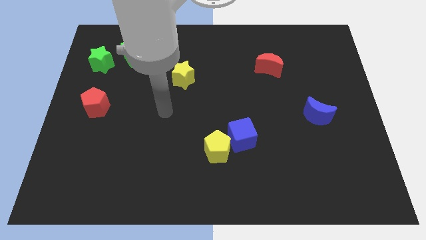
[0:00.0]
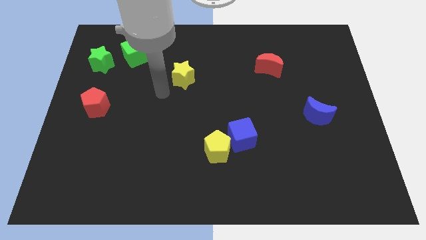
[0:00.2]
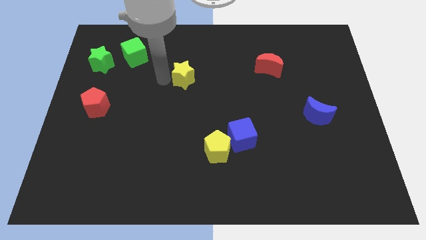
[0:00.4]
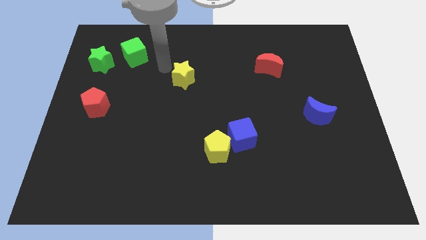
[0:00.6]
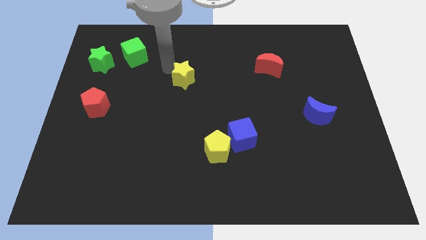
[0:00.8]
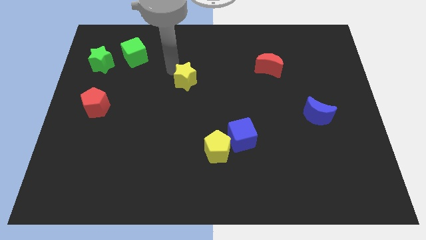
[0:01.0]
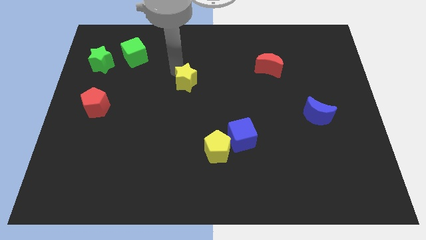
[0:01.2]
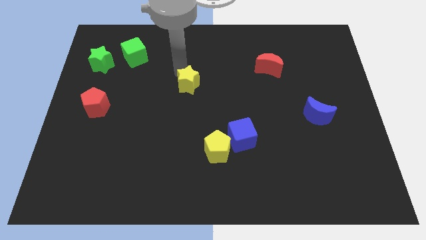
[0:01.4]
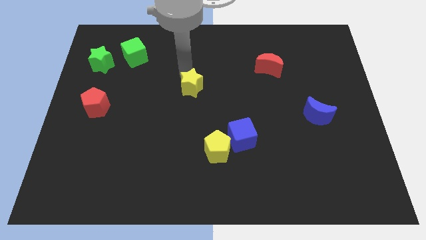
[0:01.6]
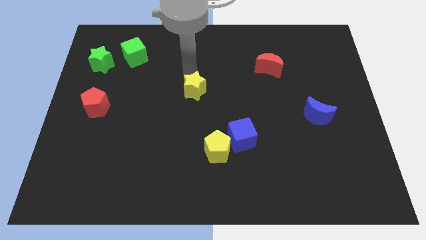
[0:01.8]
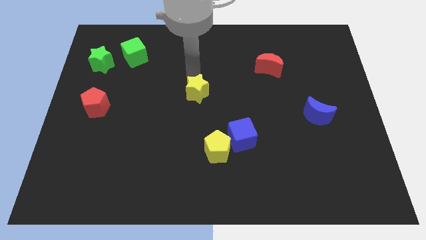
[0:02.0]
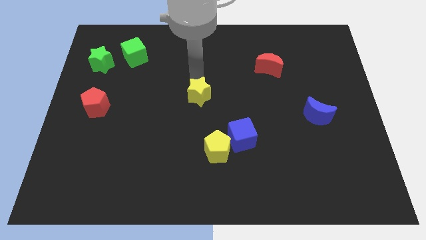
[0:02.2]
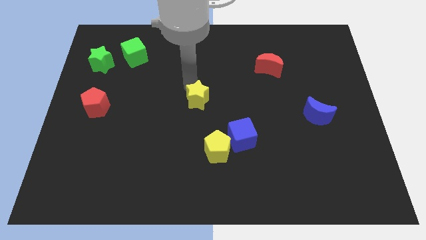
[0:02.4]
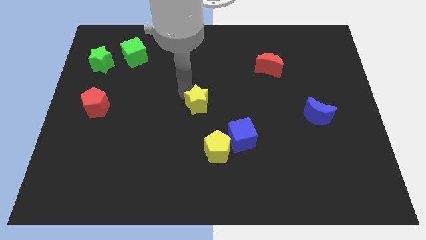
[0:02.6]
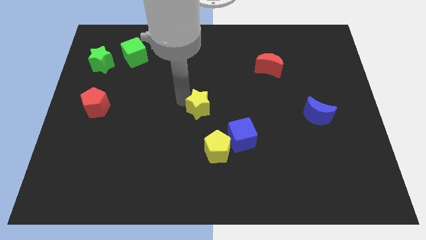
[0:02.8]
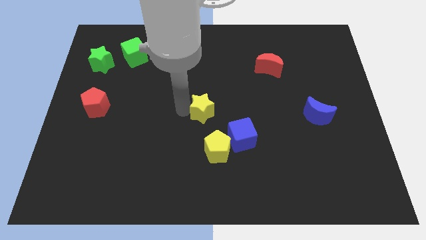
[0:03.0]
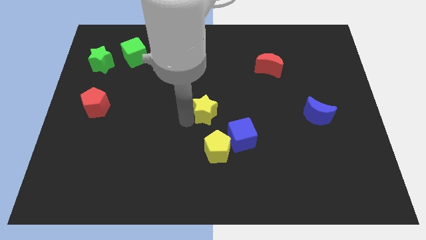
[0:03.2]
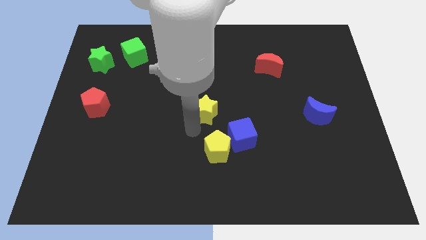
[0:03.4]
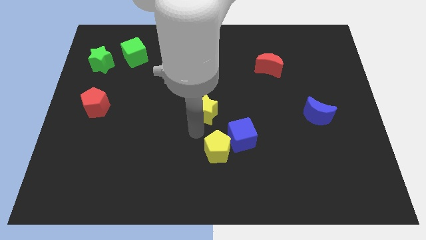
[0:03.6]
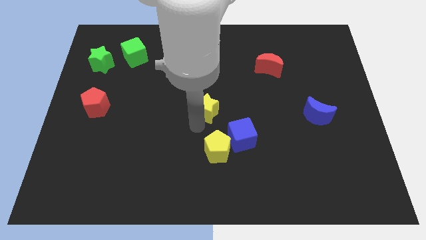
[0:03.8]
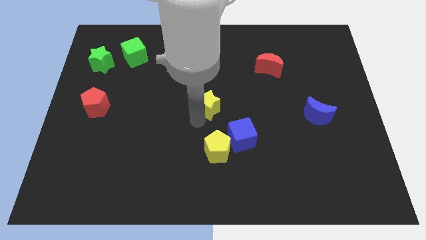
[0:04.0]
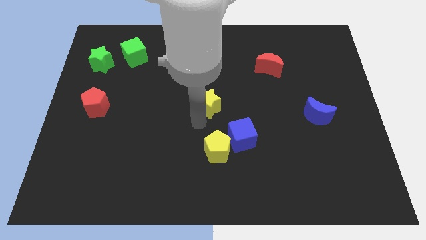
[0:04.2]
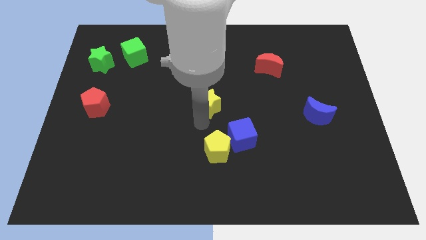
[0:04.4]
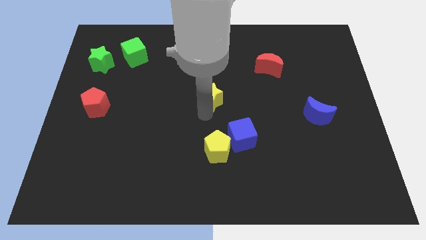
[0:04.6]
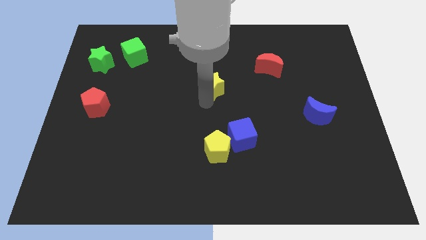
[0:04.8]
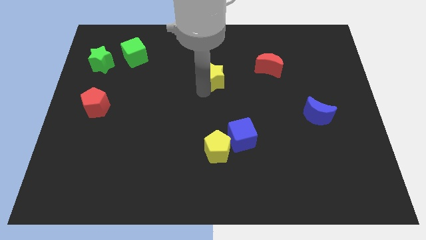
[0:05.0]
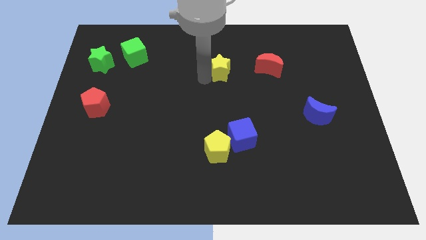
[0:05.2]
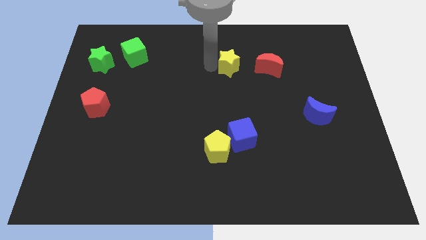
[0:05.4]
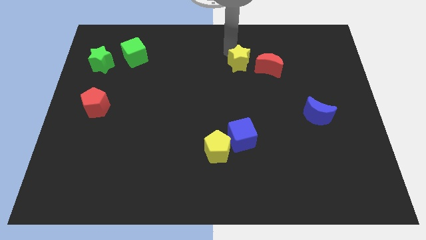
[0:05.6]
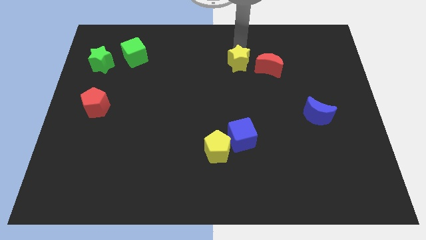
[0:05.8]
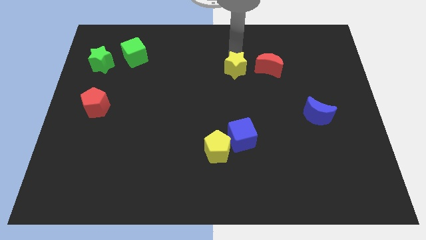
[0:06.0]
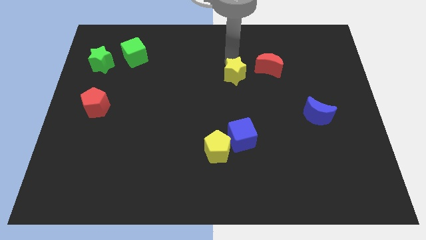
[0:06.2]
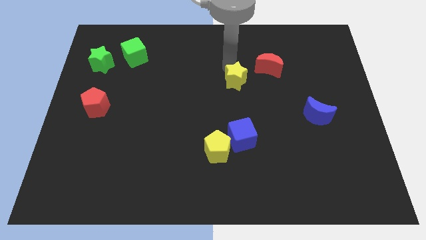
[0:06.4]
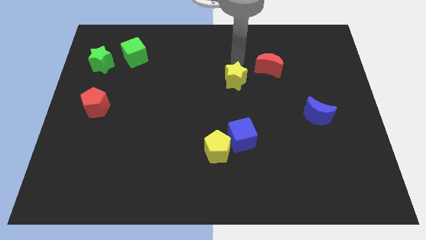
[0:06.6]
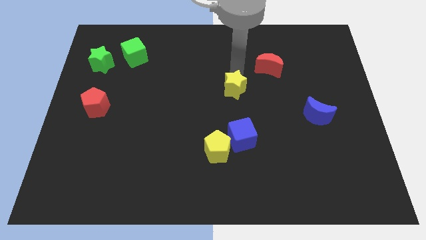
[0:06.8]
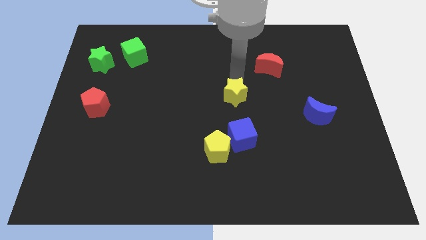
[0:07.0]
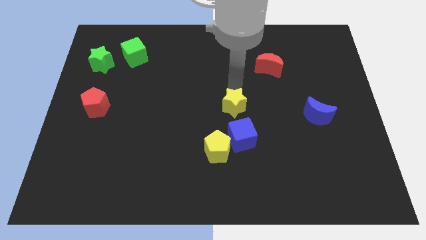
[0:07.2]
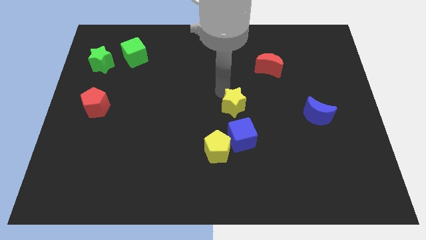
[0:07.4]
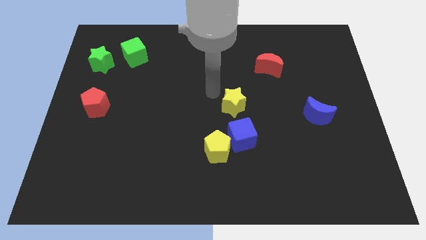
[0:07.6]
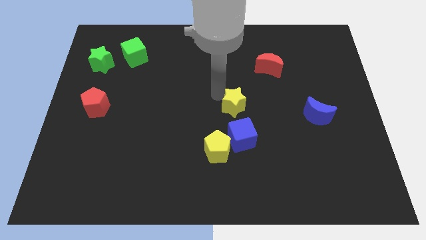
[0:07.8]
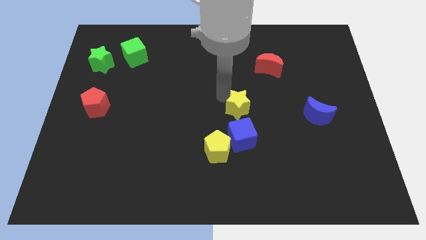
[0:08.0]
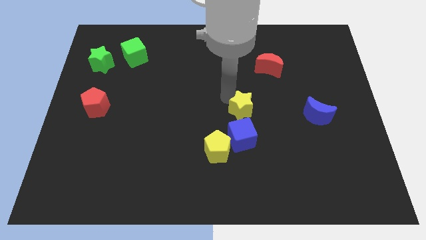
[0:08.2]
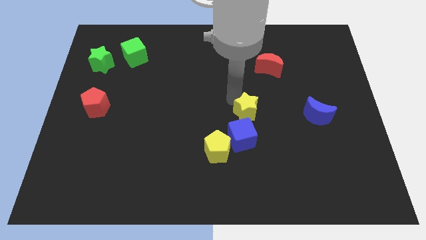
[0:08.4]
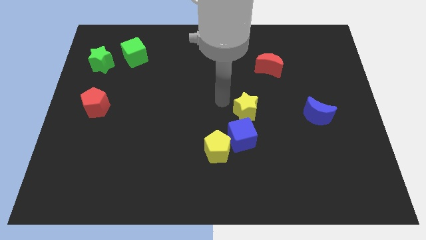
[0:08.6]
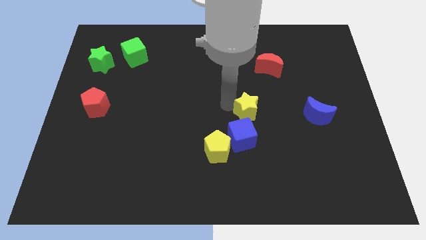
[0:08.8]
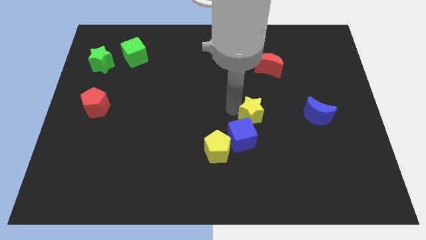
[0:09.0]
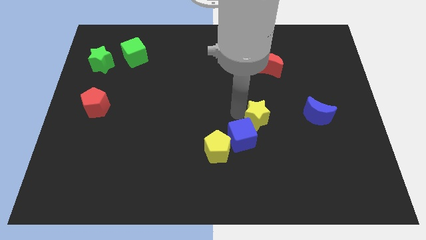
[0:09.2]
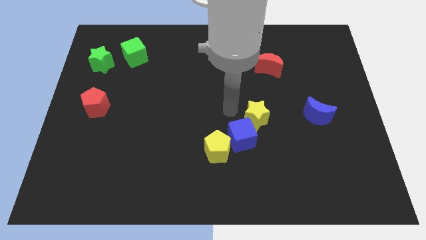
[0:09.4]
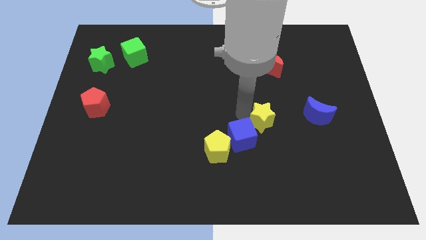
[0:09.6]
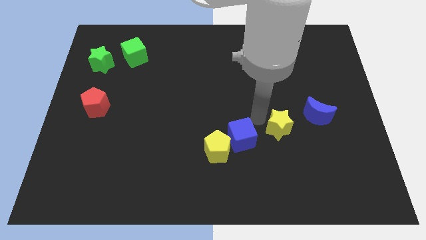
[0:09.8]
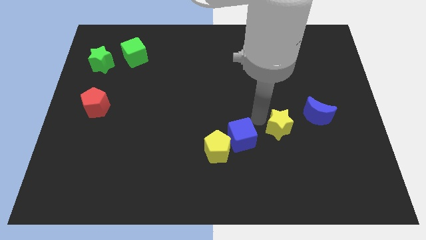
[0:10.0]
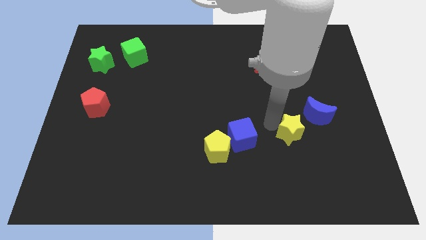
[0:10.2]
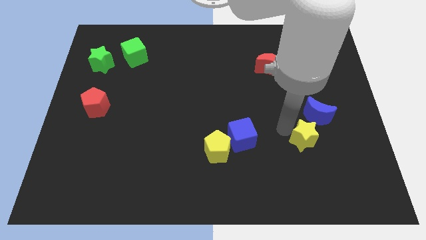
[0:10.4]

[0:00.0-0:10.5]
push the yellow star to the bottom side of the blue moon

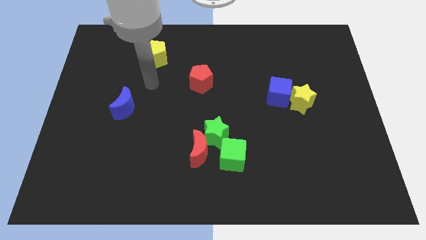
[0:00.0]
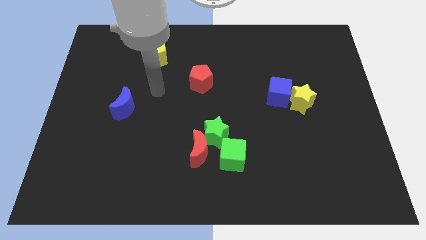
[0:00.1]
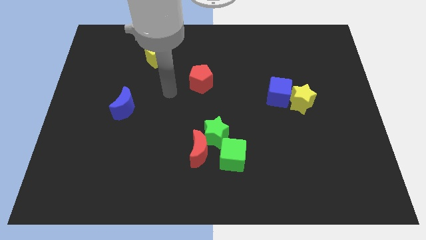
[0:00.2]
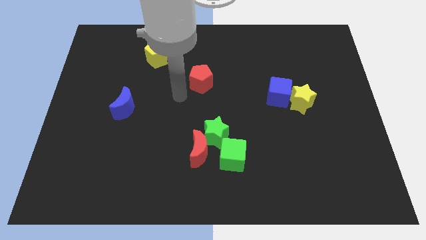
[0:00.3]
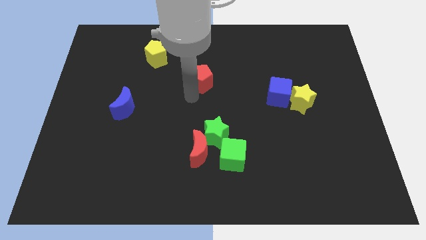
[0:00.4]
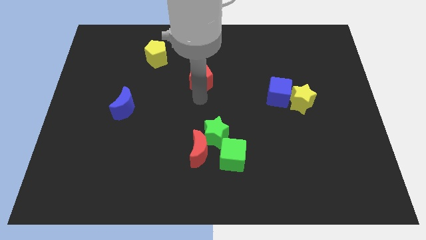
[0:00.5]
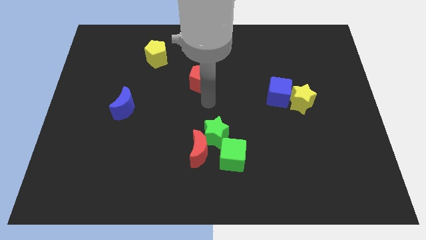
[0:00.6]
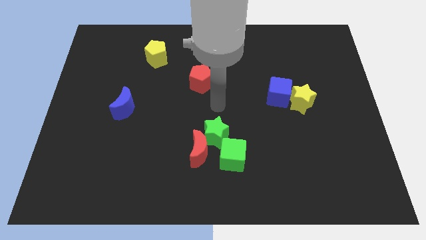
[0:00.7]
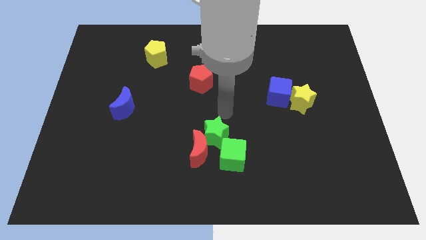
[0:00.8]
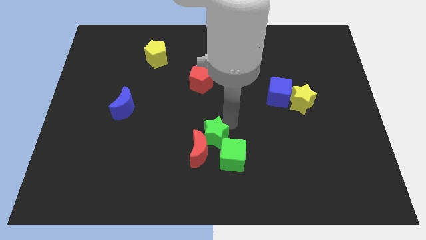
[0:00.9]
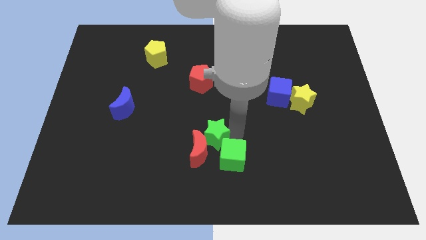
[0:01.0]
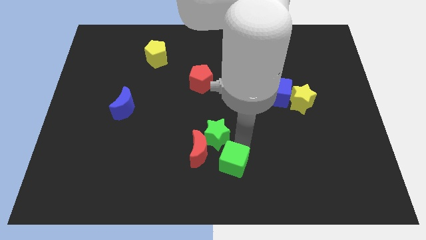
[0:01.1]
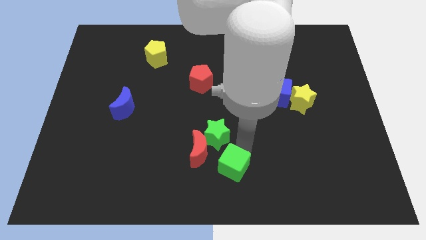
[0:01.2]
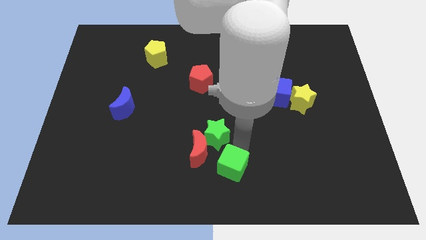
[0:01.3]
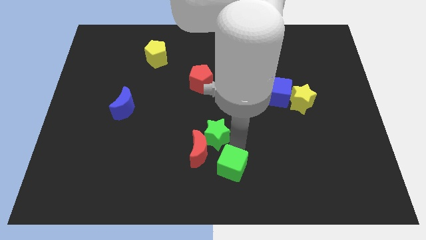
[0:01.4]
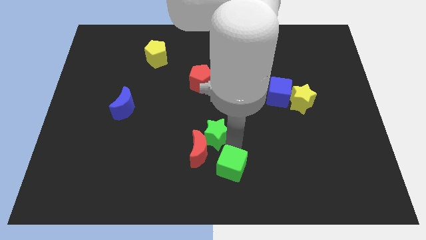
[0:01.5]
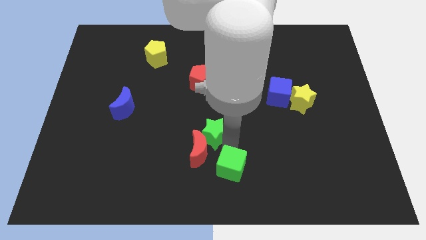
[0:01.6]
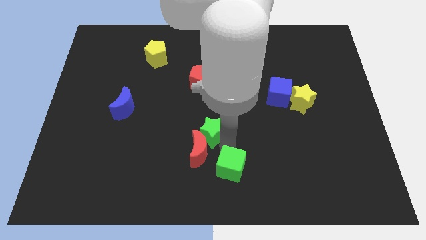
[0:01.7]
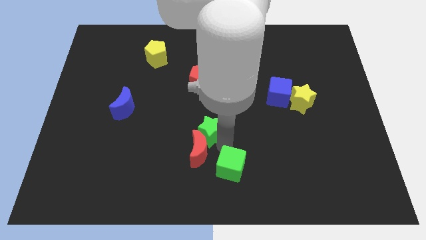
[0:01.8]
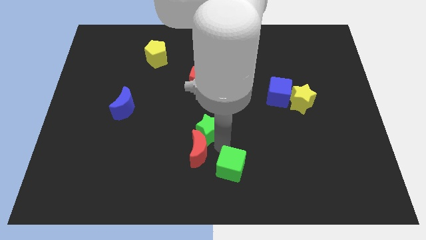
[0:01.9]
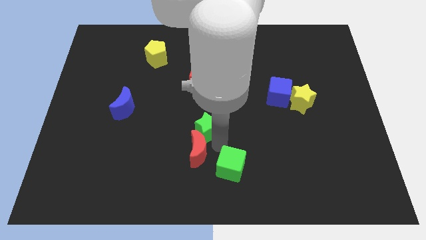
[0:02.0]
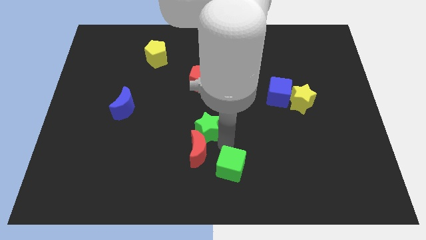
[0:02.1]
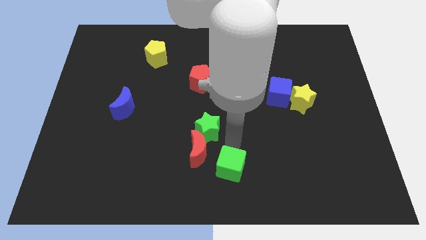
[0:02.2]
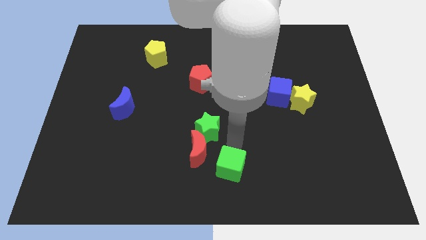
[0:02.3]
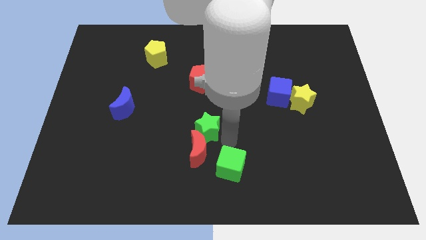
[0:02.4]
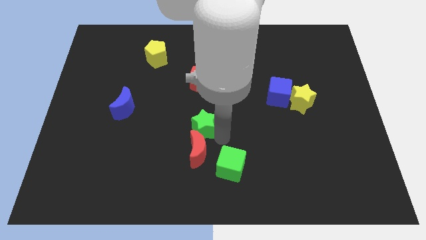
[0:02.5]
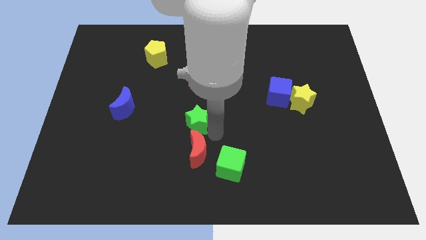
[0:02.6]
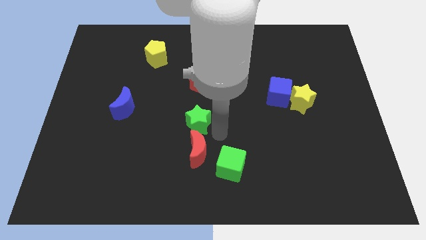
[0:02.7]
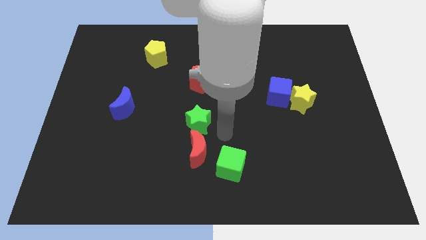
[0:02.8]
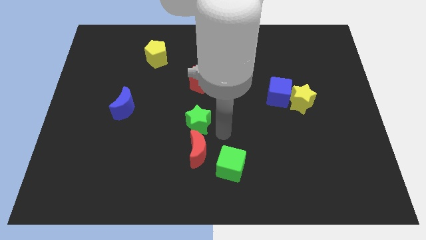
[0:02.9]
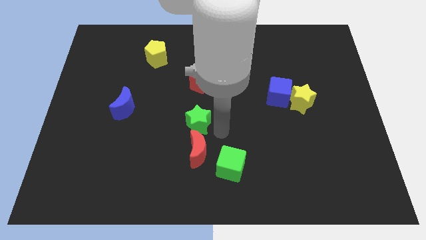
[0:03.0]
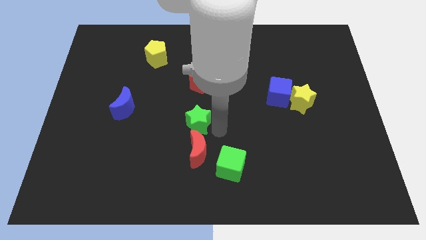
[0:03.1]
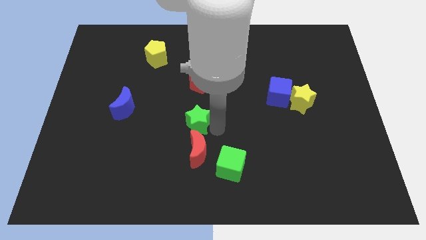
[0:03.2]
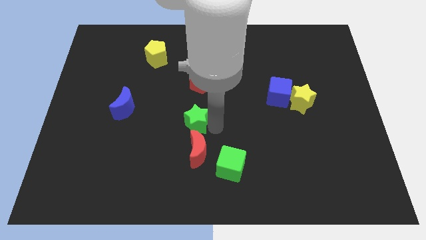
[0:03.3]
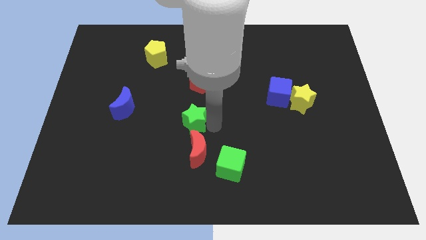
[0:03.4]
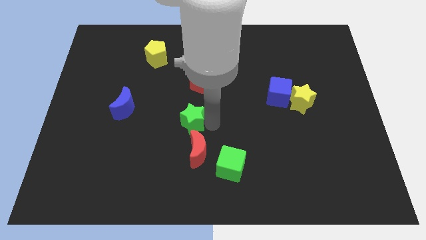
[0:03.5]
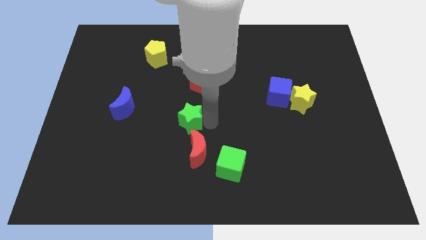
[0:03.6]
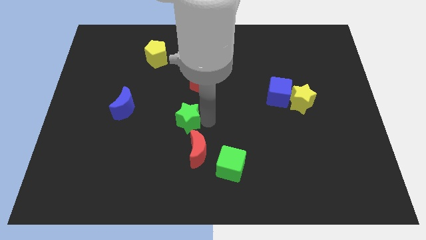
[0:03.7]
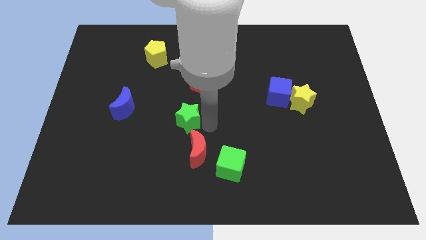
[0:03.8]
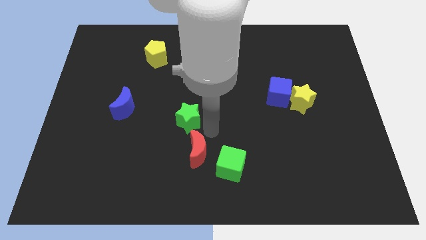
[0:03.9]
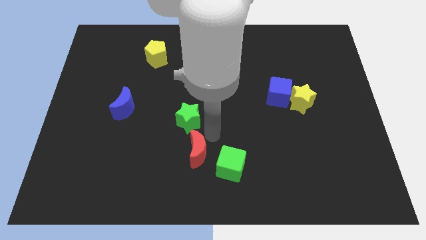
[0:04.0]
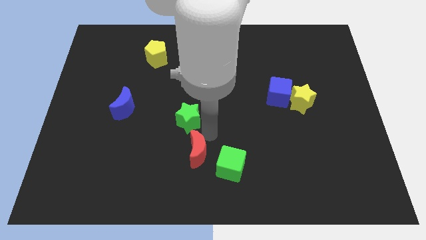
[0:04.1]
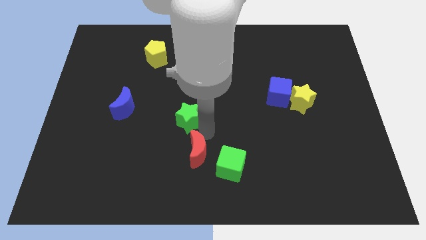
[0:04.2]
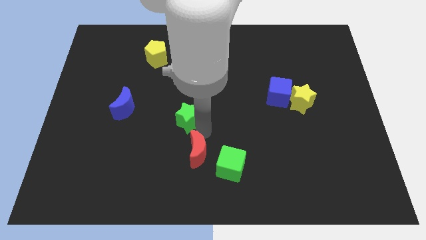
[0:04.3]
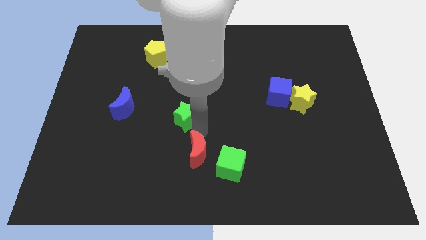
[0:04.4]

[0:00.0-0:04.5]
move the green star just right of the blue moon
